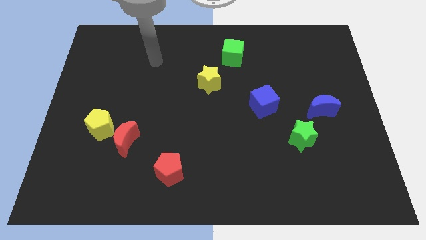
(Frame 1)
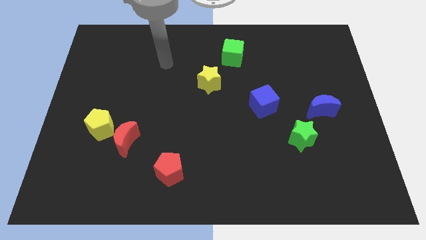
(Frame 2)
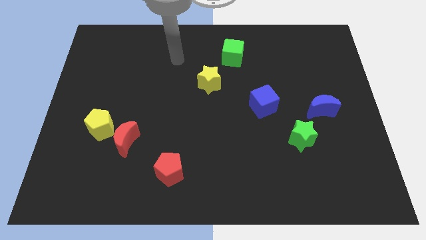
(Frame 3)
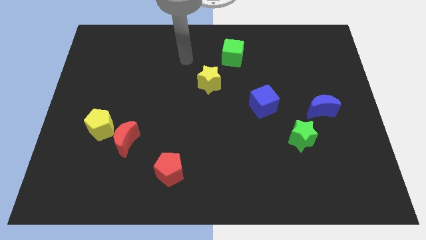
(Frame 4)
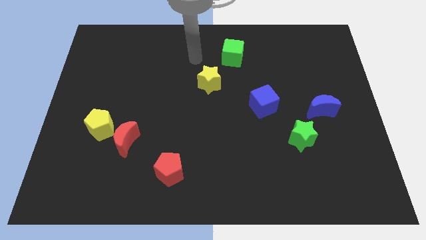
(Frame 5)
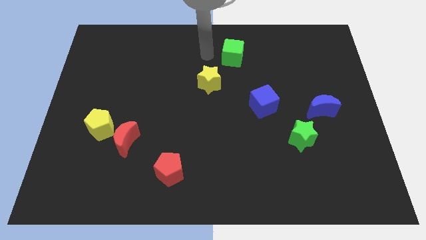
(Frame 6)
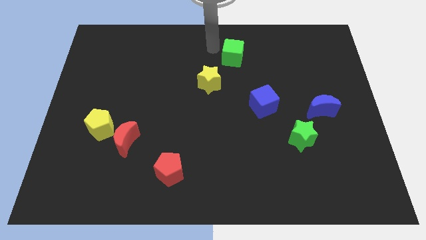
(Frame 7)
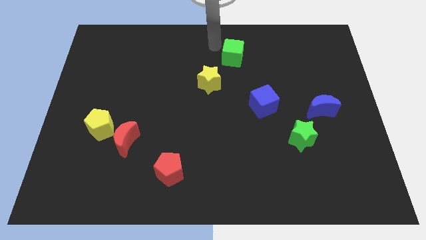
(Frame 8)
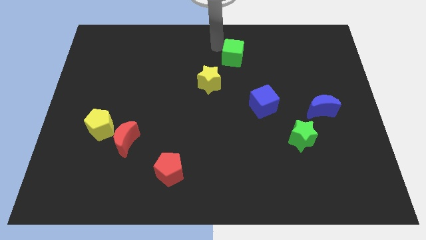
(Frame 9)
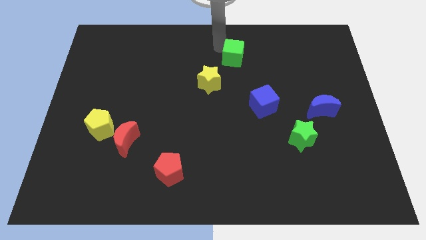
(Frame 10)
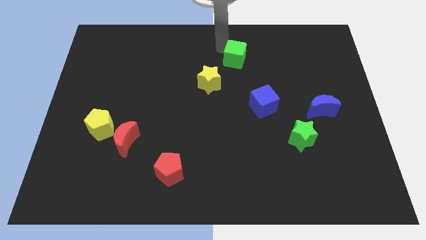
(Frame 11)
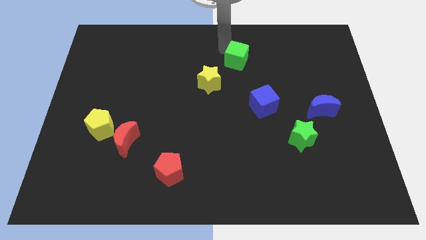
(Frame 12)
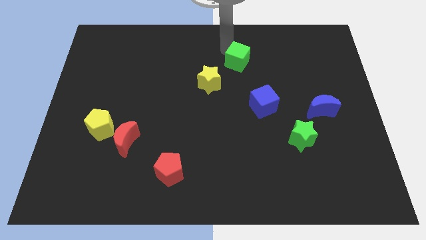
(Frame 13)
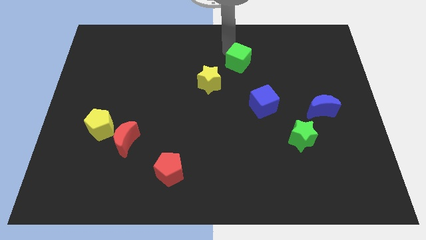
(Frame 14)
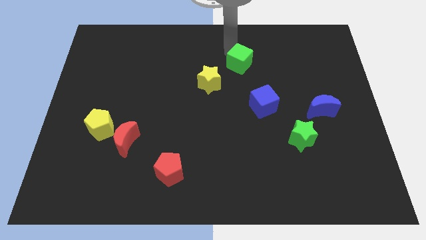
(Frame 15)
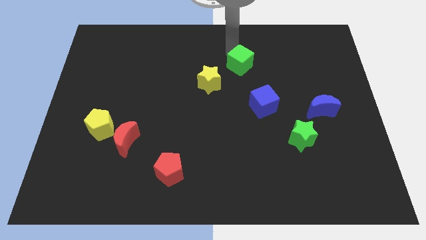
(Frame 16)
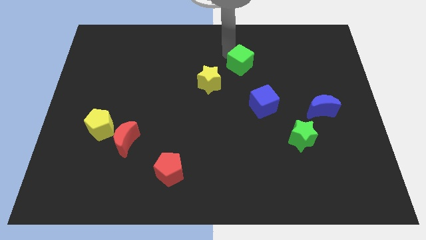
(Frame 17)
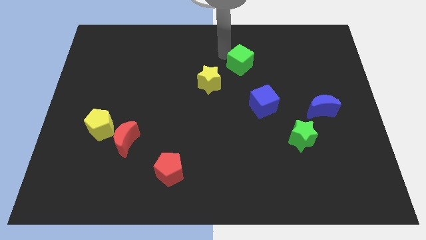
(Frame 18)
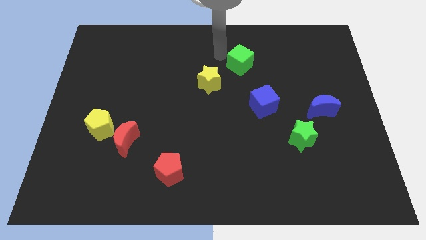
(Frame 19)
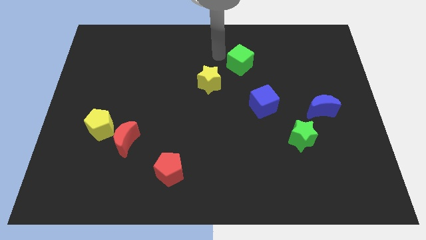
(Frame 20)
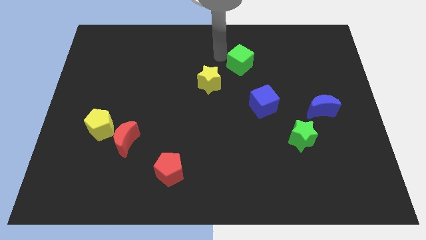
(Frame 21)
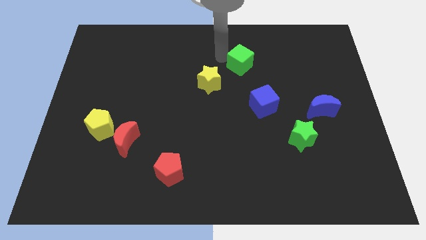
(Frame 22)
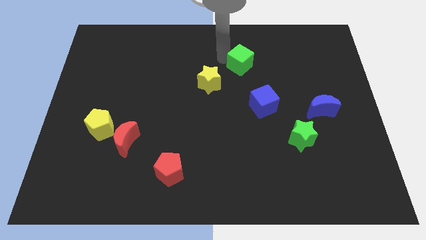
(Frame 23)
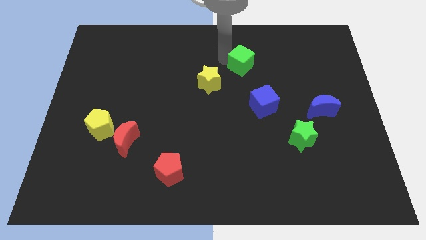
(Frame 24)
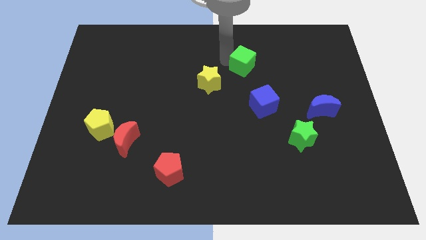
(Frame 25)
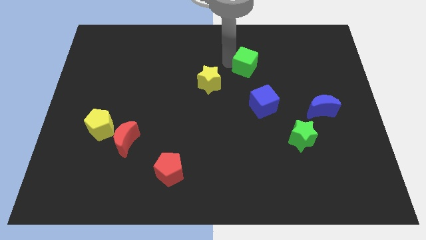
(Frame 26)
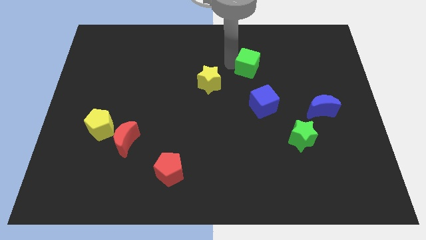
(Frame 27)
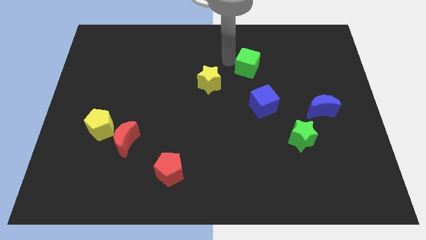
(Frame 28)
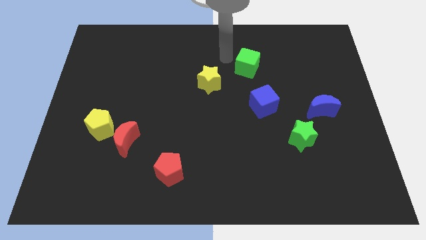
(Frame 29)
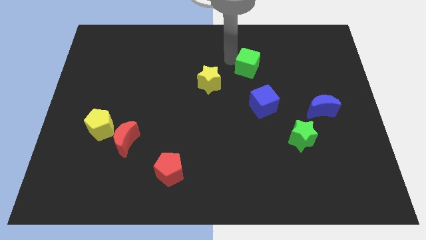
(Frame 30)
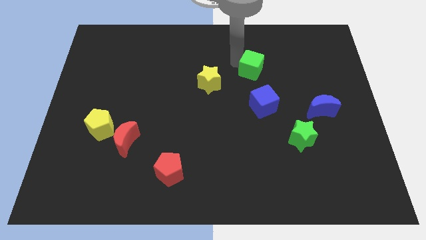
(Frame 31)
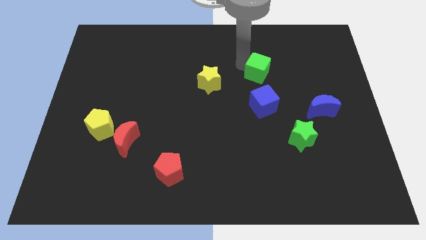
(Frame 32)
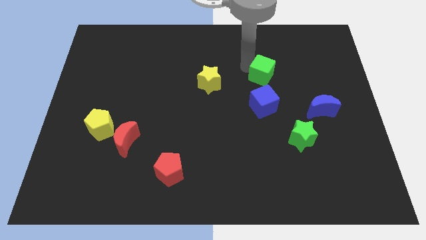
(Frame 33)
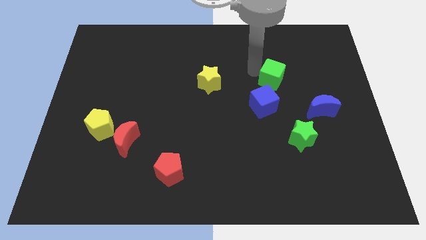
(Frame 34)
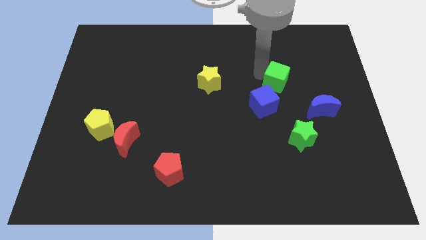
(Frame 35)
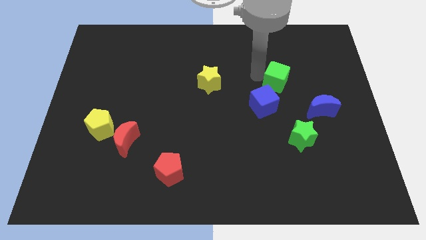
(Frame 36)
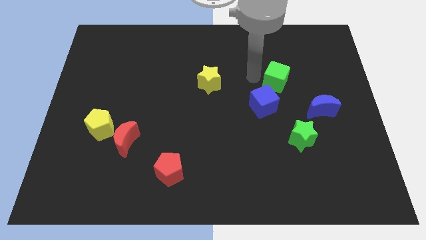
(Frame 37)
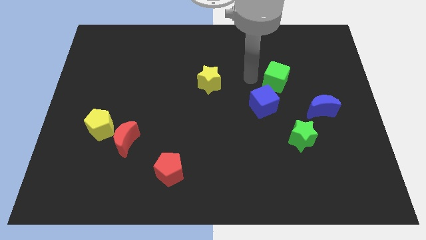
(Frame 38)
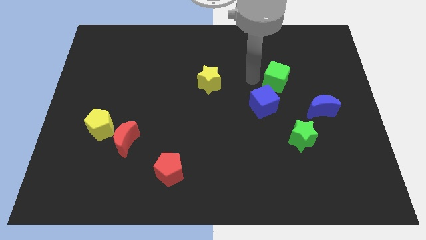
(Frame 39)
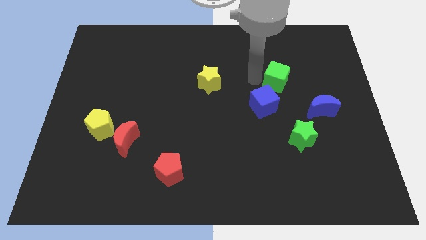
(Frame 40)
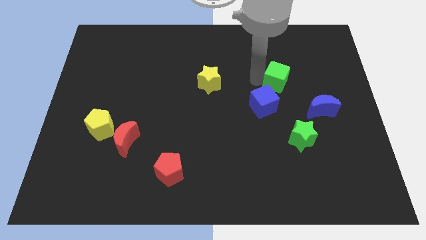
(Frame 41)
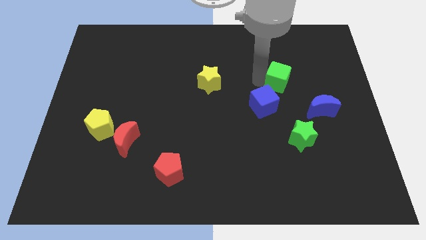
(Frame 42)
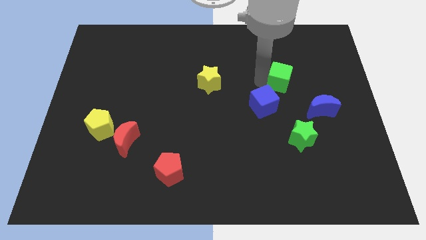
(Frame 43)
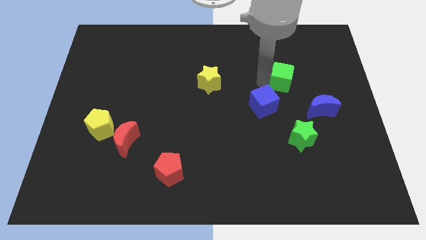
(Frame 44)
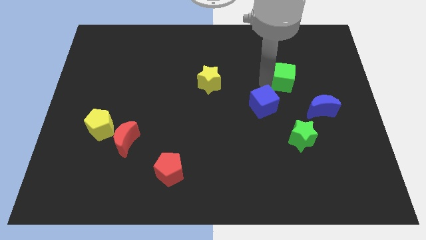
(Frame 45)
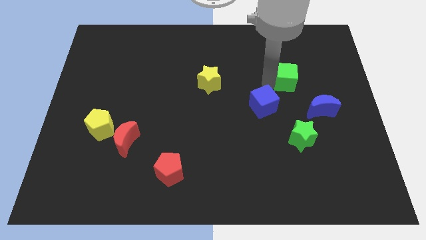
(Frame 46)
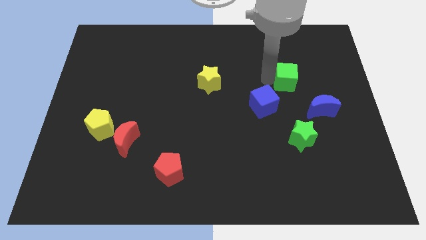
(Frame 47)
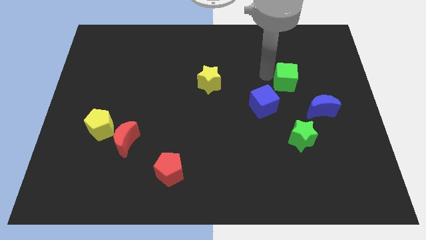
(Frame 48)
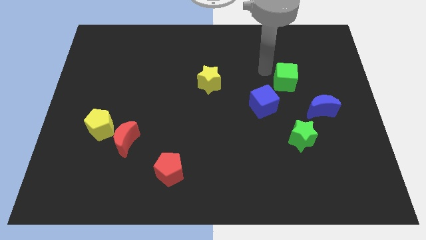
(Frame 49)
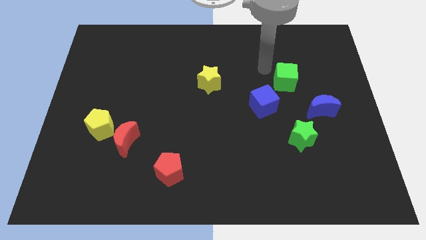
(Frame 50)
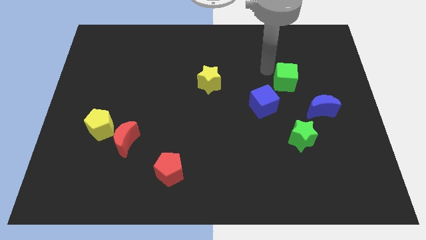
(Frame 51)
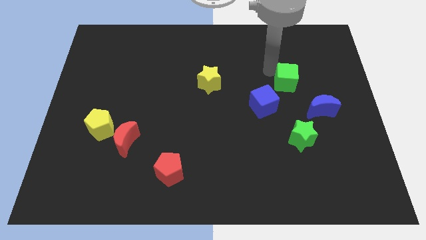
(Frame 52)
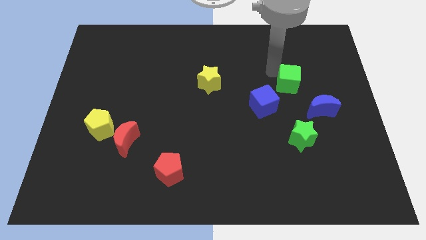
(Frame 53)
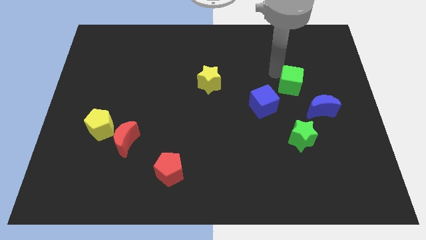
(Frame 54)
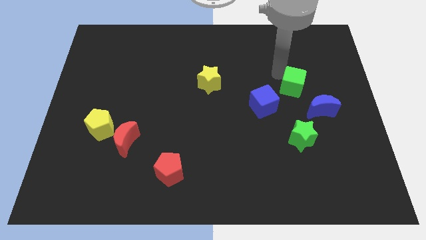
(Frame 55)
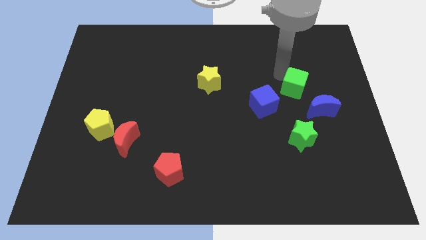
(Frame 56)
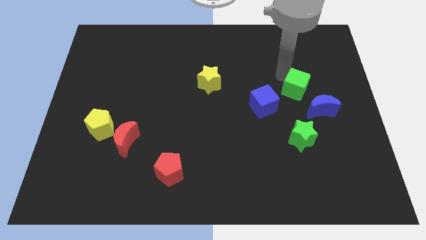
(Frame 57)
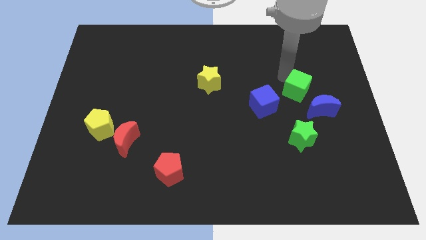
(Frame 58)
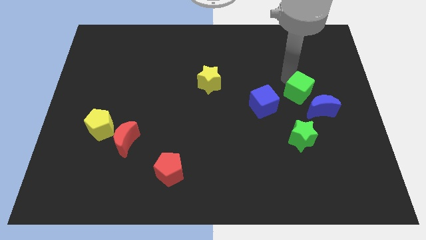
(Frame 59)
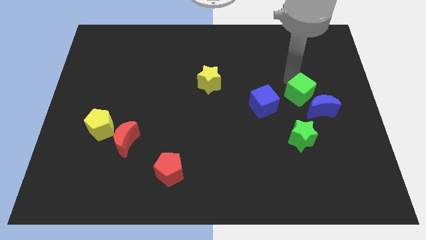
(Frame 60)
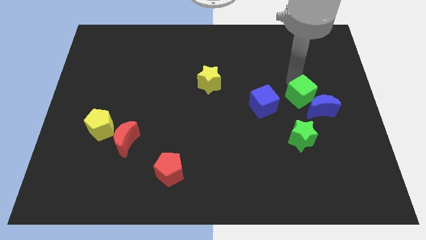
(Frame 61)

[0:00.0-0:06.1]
push the green cube next to the blue moon

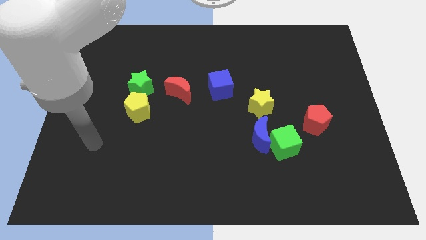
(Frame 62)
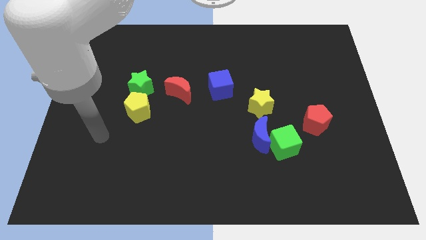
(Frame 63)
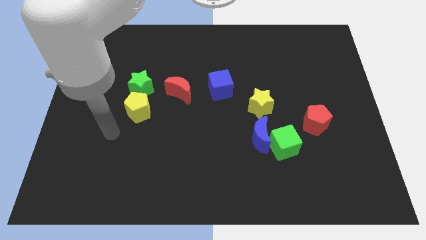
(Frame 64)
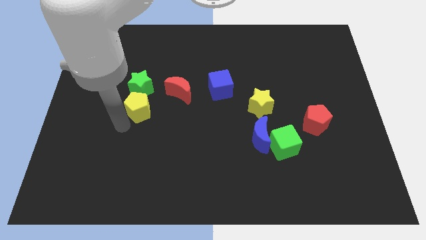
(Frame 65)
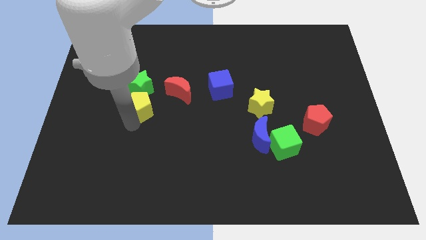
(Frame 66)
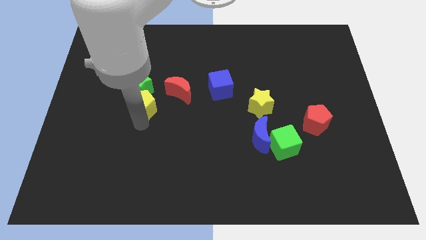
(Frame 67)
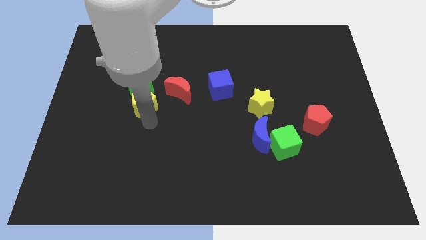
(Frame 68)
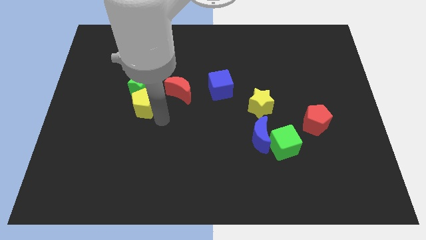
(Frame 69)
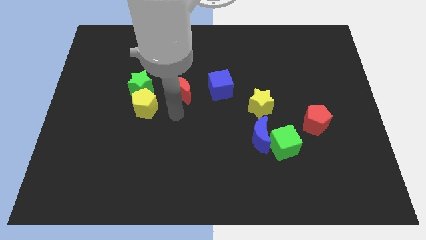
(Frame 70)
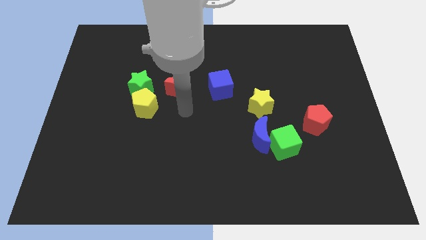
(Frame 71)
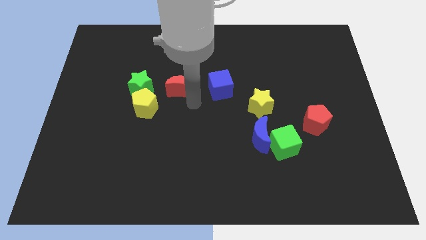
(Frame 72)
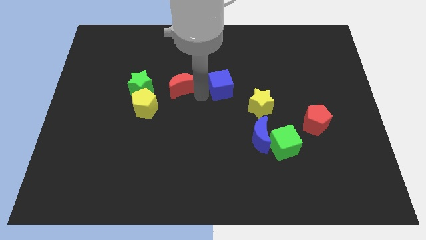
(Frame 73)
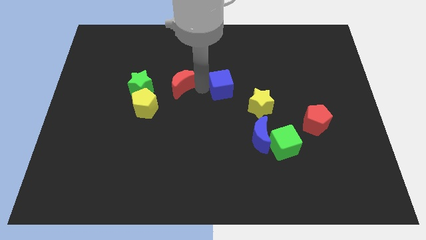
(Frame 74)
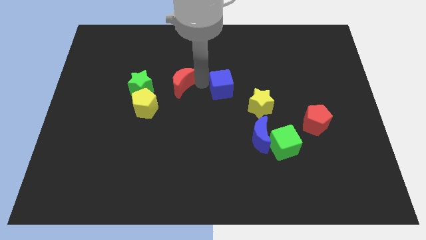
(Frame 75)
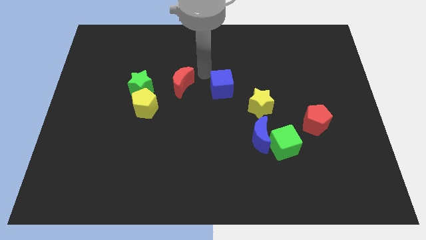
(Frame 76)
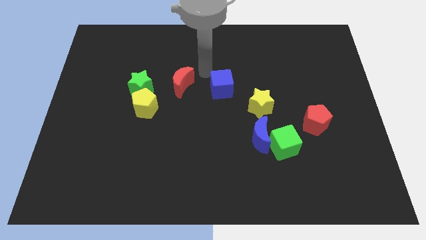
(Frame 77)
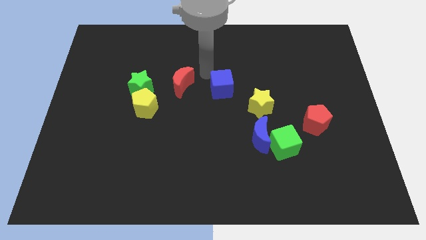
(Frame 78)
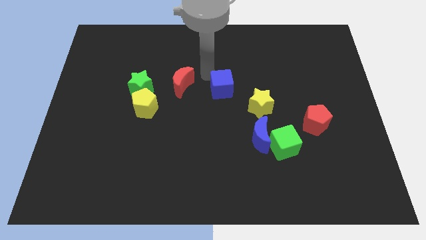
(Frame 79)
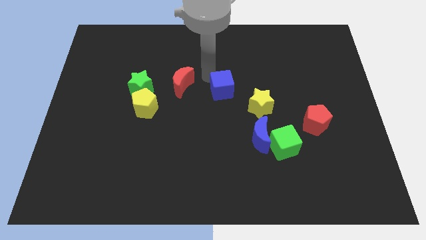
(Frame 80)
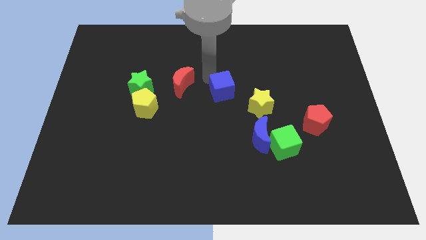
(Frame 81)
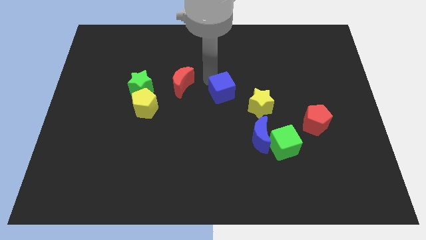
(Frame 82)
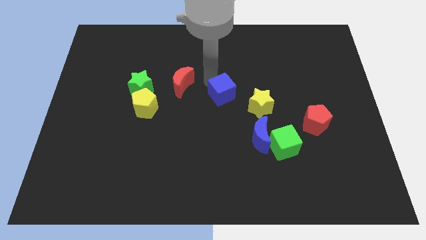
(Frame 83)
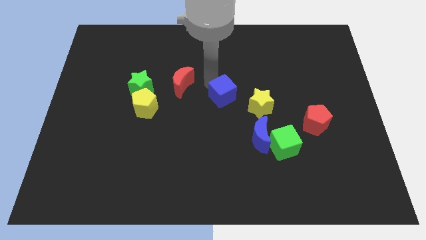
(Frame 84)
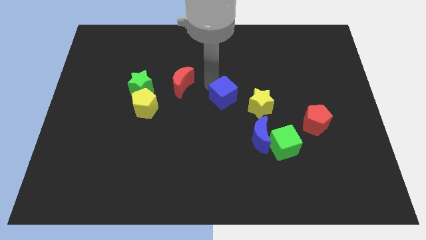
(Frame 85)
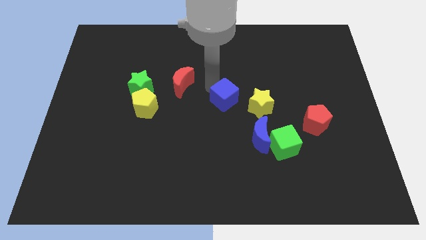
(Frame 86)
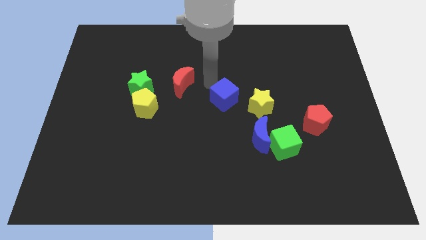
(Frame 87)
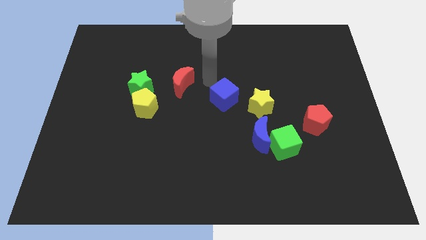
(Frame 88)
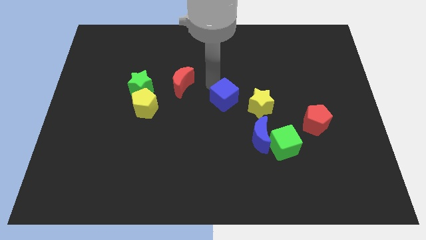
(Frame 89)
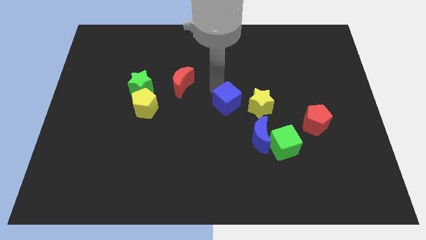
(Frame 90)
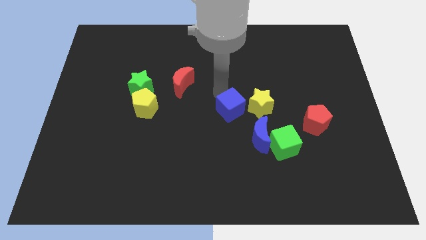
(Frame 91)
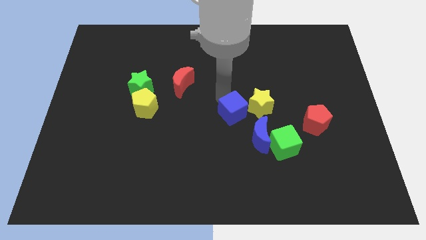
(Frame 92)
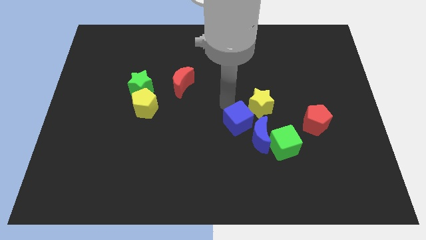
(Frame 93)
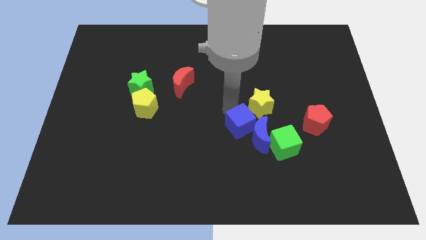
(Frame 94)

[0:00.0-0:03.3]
push the blue cube close to the blue moon
